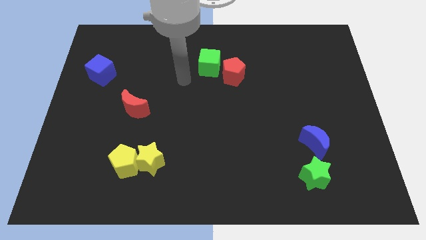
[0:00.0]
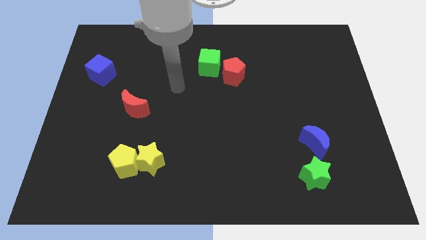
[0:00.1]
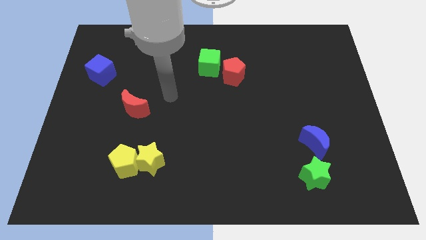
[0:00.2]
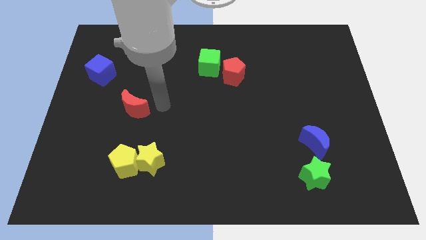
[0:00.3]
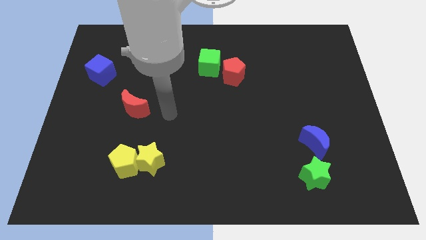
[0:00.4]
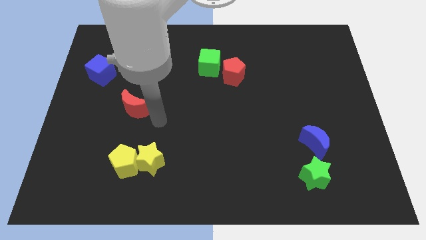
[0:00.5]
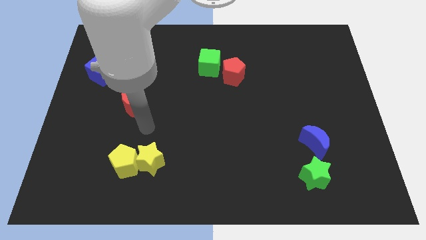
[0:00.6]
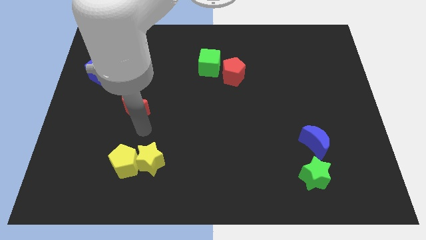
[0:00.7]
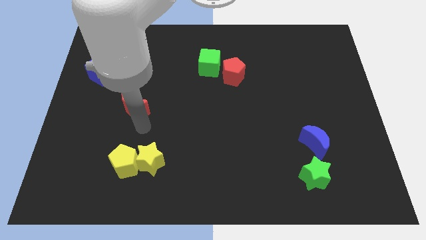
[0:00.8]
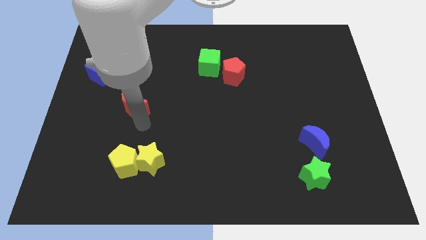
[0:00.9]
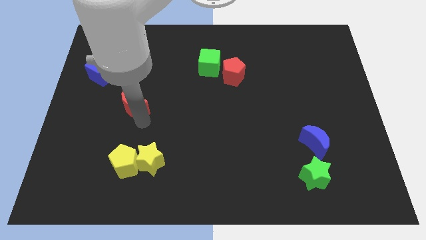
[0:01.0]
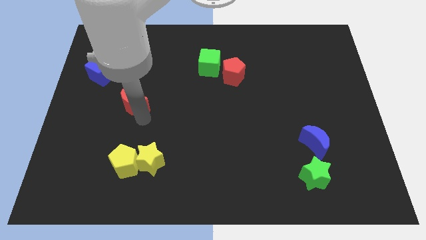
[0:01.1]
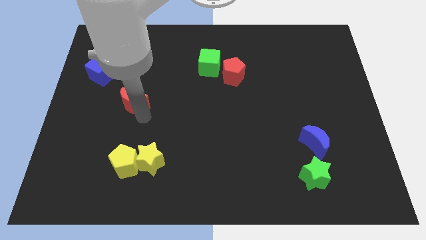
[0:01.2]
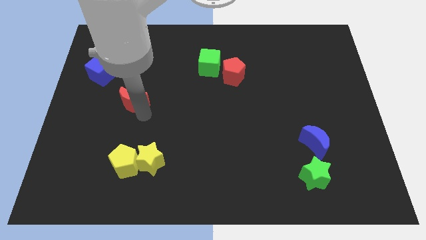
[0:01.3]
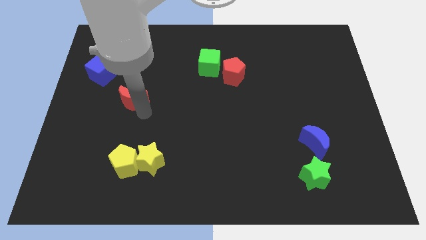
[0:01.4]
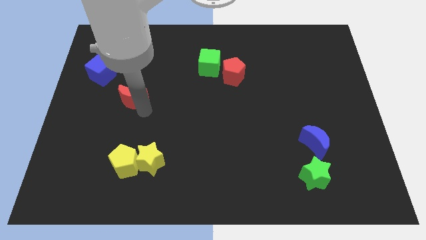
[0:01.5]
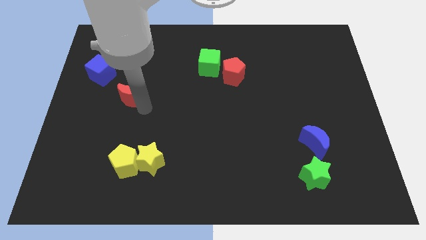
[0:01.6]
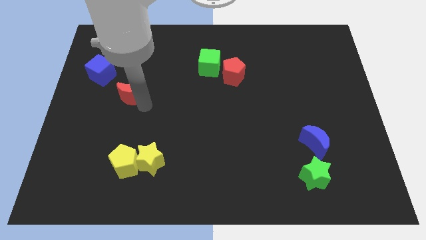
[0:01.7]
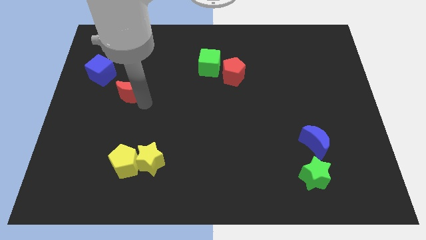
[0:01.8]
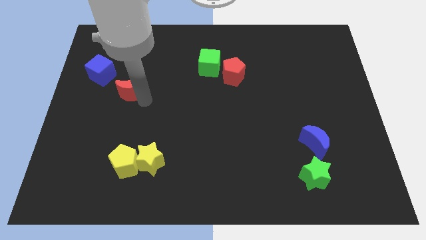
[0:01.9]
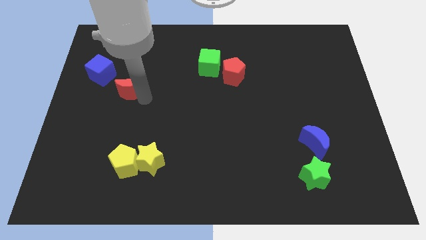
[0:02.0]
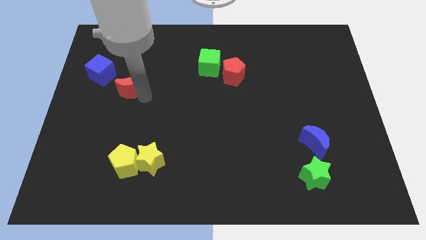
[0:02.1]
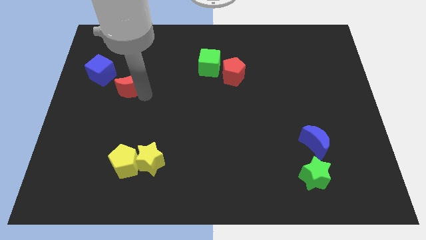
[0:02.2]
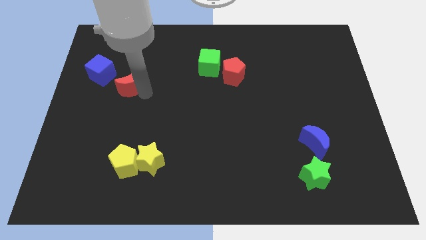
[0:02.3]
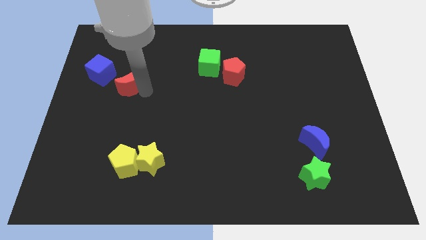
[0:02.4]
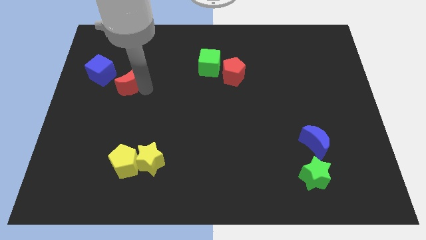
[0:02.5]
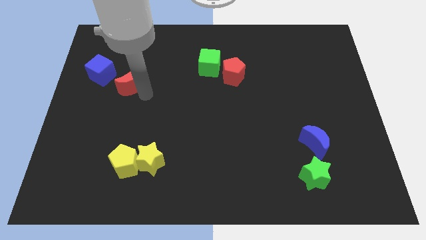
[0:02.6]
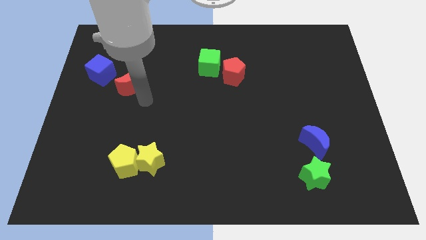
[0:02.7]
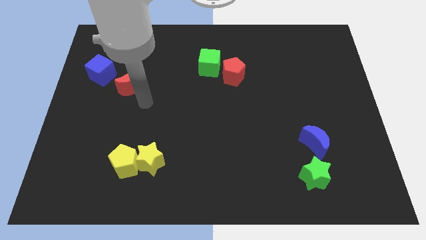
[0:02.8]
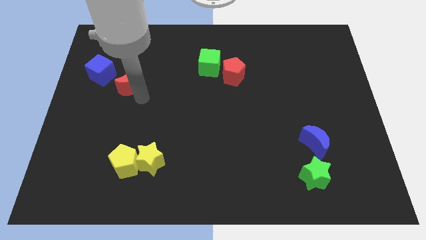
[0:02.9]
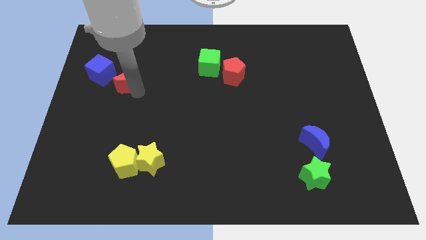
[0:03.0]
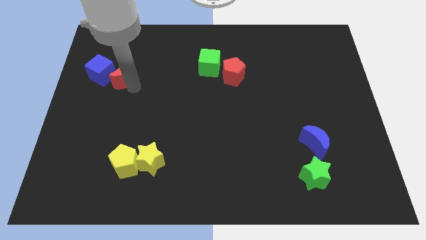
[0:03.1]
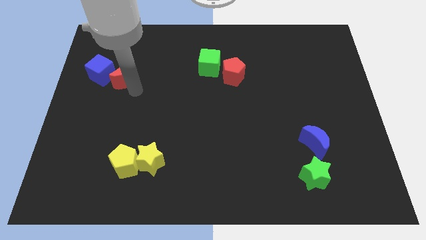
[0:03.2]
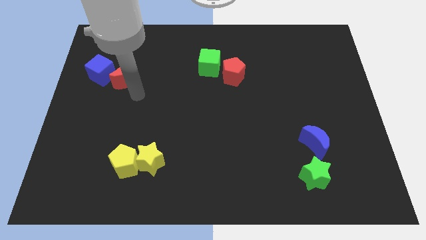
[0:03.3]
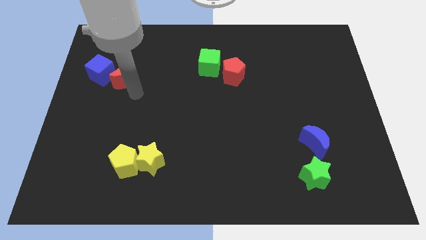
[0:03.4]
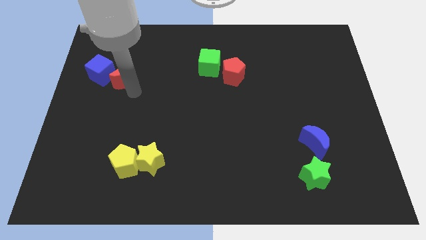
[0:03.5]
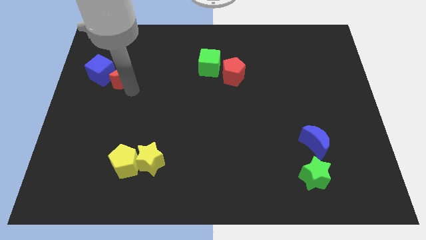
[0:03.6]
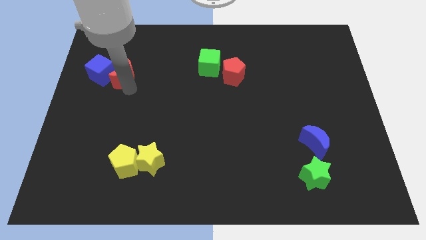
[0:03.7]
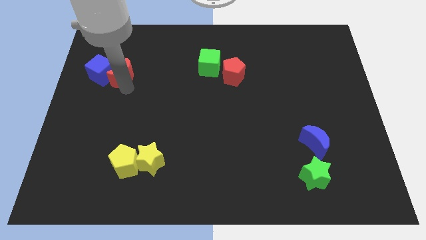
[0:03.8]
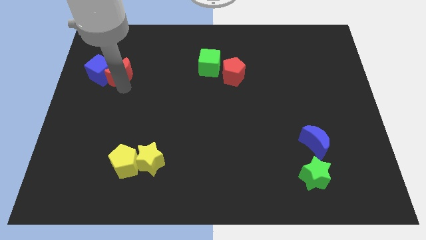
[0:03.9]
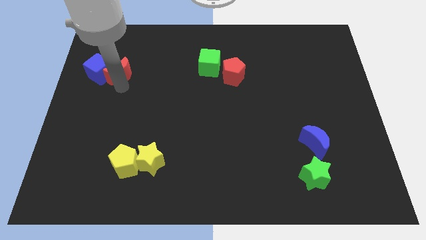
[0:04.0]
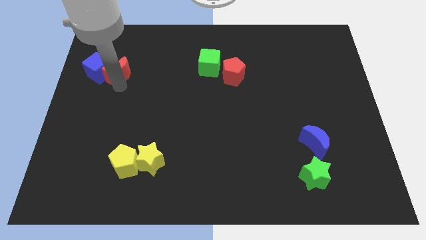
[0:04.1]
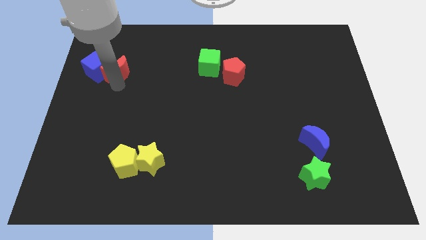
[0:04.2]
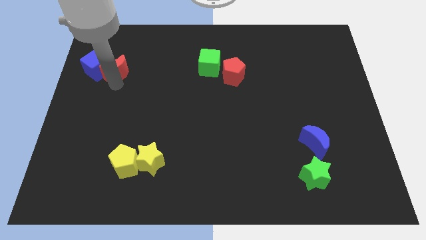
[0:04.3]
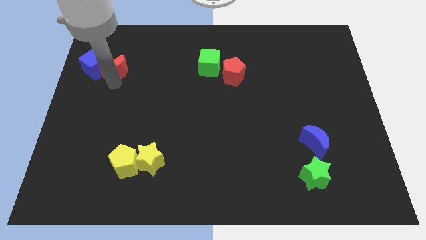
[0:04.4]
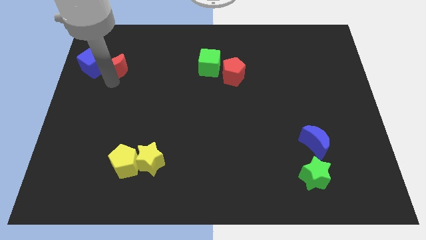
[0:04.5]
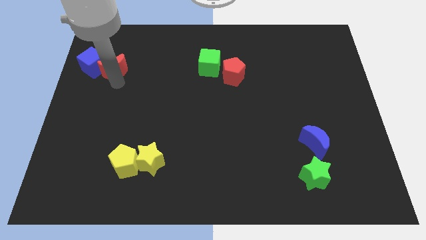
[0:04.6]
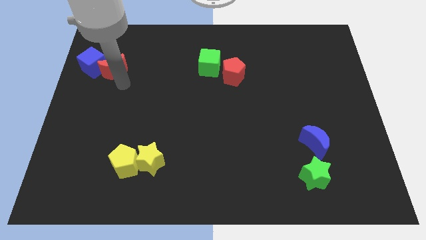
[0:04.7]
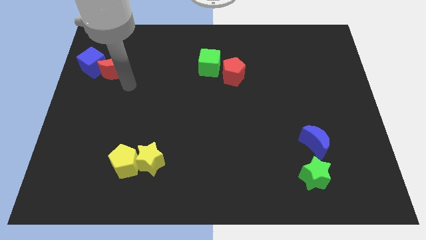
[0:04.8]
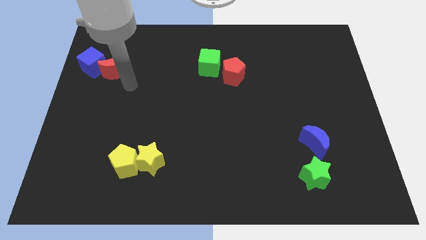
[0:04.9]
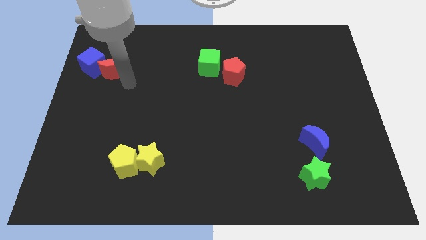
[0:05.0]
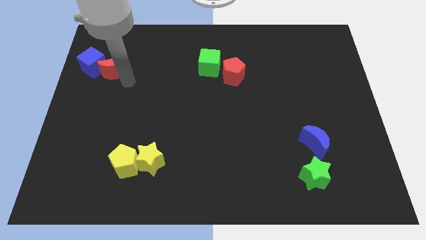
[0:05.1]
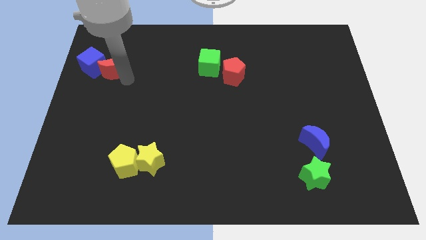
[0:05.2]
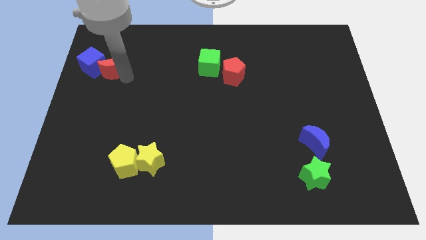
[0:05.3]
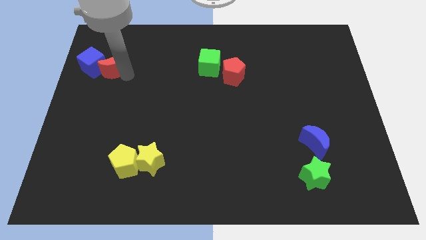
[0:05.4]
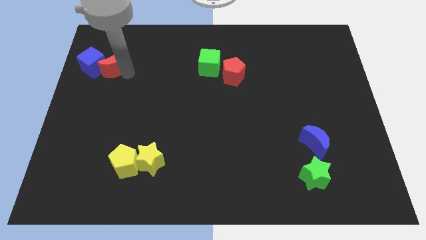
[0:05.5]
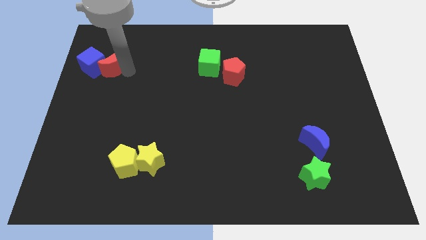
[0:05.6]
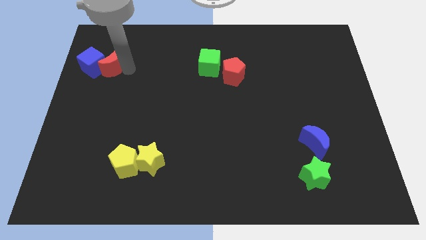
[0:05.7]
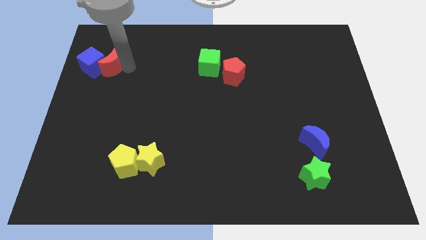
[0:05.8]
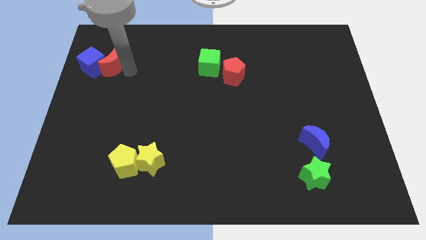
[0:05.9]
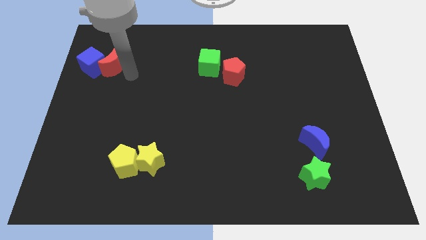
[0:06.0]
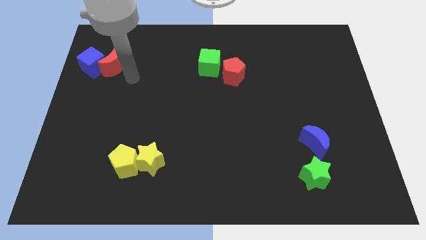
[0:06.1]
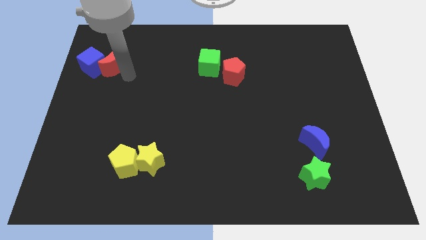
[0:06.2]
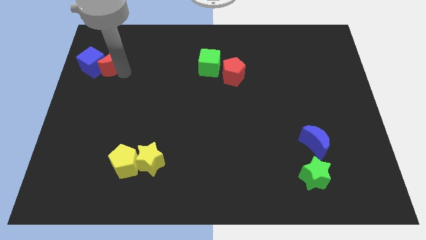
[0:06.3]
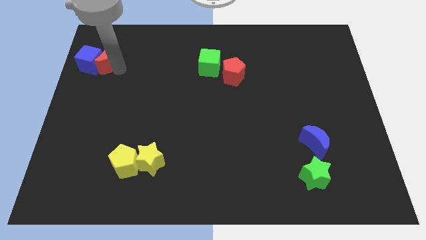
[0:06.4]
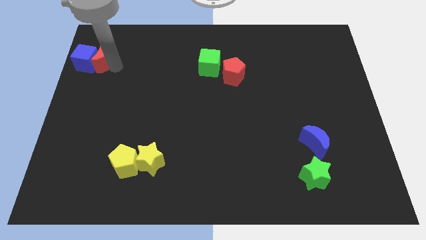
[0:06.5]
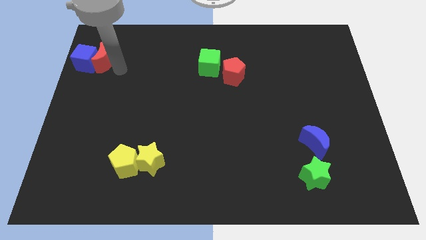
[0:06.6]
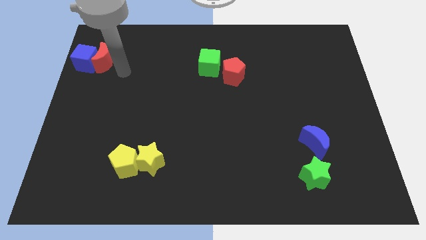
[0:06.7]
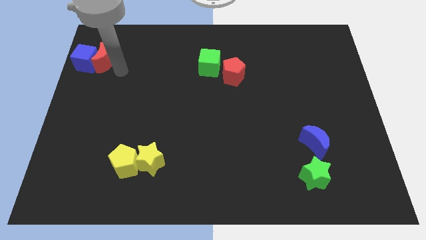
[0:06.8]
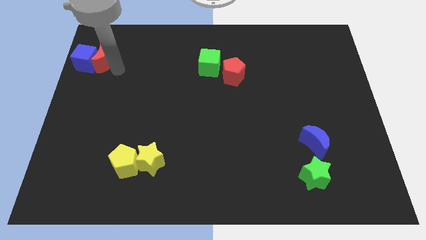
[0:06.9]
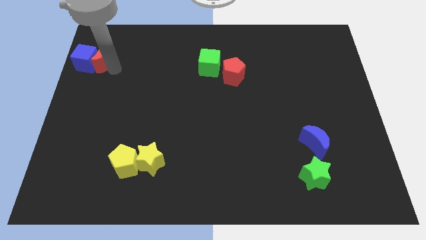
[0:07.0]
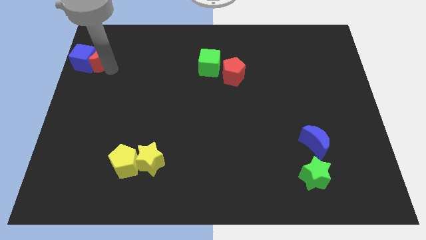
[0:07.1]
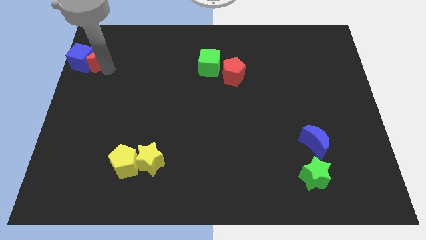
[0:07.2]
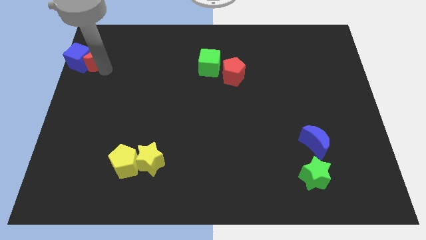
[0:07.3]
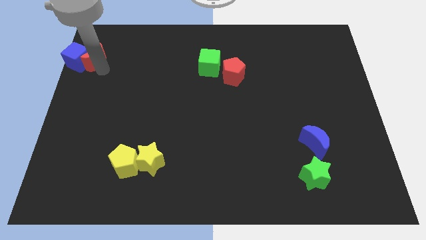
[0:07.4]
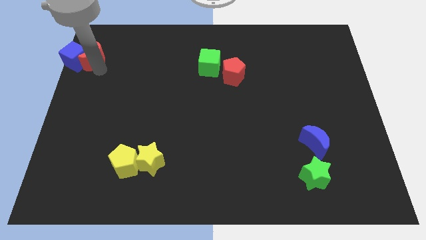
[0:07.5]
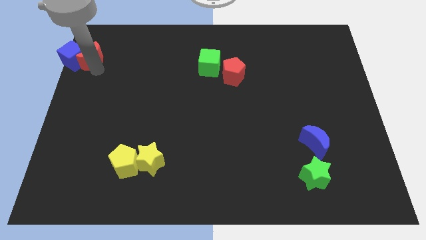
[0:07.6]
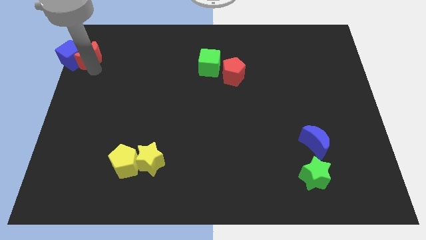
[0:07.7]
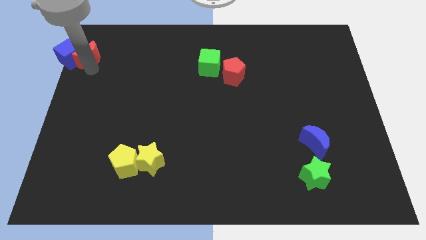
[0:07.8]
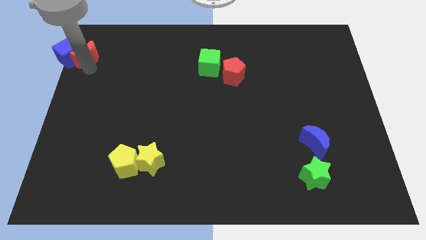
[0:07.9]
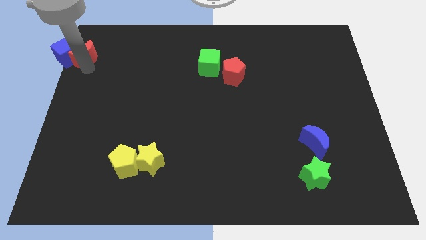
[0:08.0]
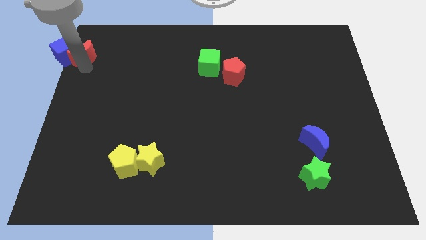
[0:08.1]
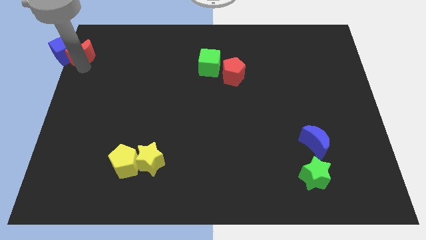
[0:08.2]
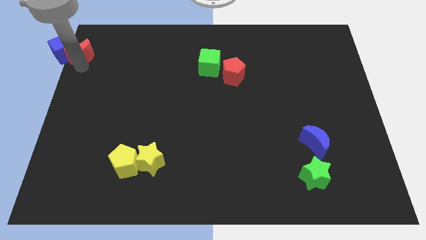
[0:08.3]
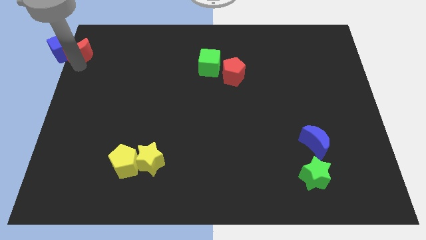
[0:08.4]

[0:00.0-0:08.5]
slide the red moon to the top left of the board
